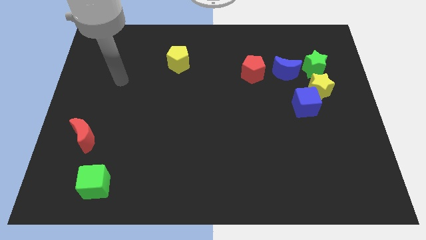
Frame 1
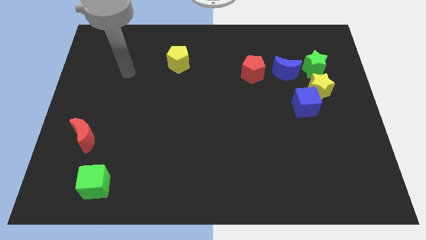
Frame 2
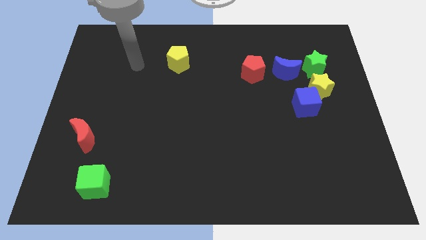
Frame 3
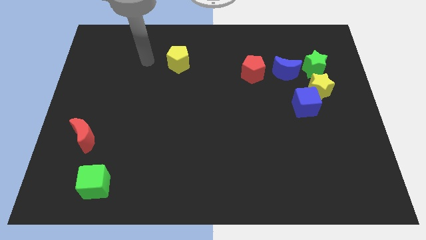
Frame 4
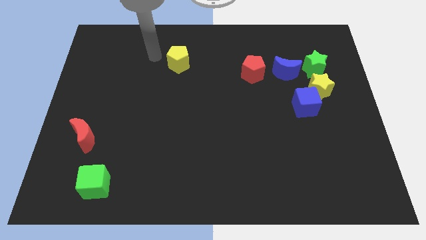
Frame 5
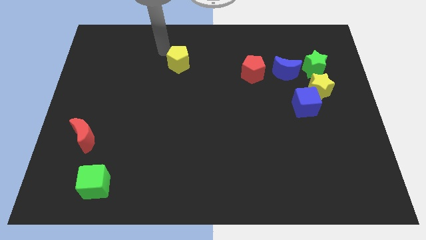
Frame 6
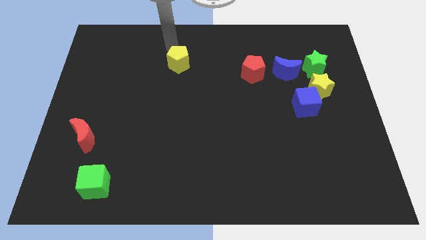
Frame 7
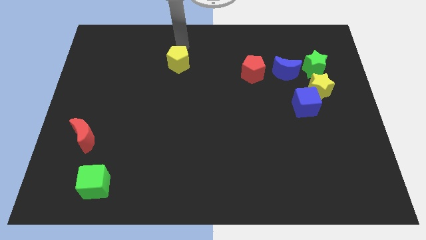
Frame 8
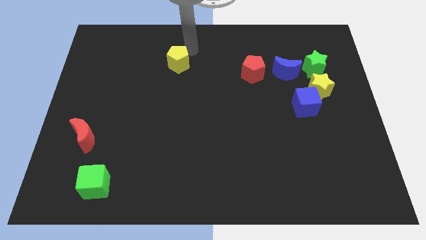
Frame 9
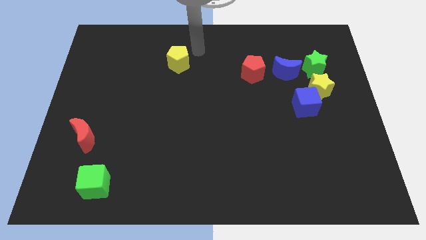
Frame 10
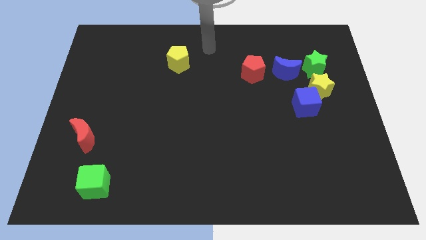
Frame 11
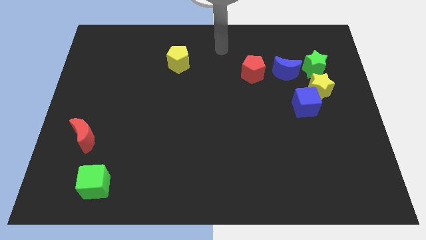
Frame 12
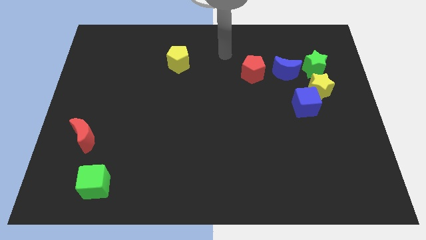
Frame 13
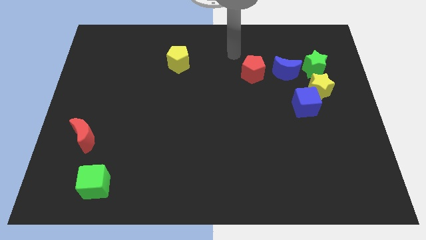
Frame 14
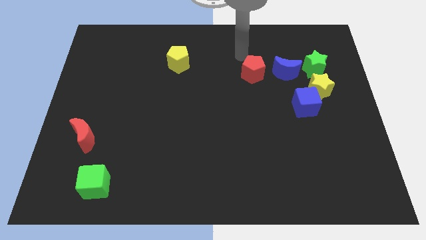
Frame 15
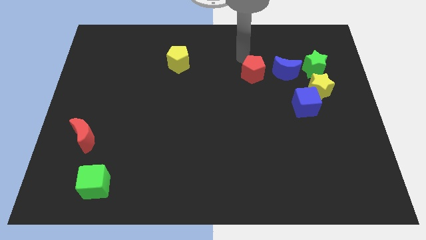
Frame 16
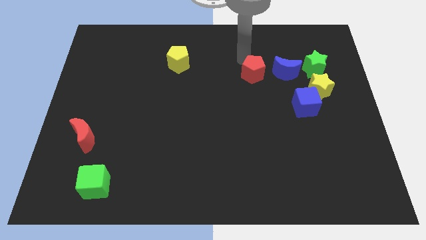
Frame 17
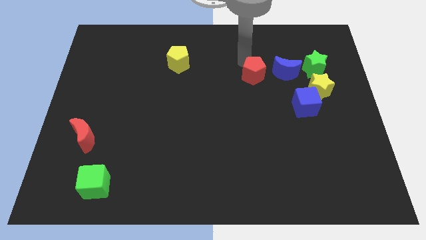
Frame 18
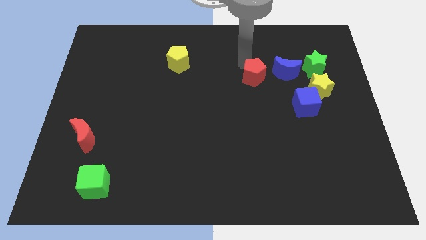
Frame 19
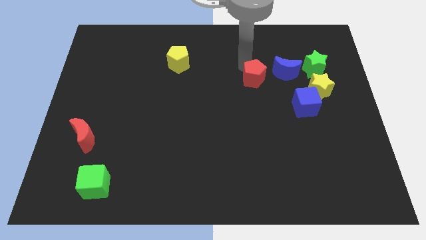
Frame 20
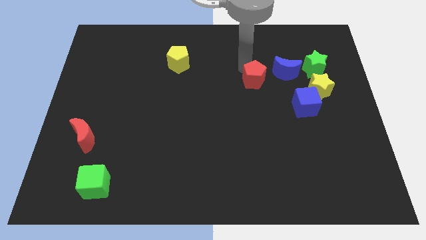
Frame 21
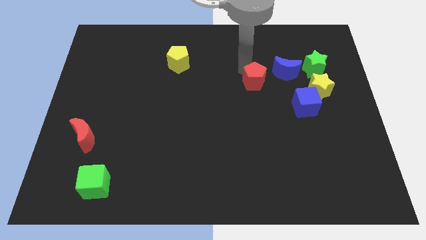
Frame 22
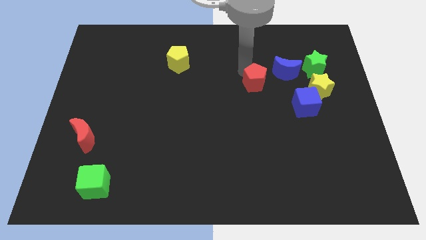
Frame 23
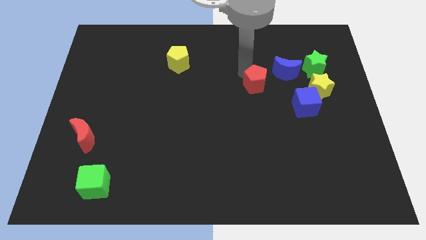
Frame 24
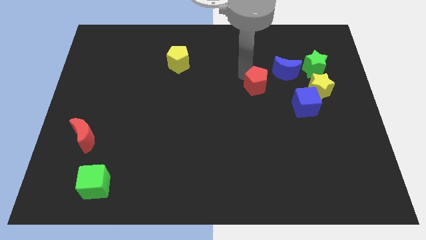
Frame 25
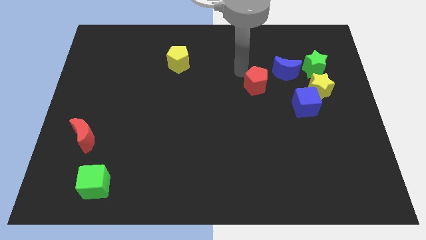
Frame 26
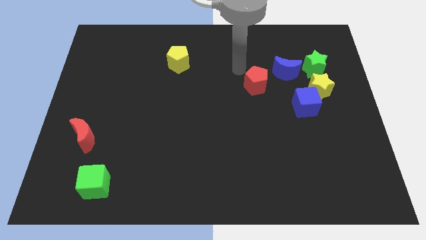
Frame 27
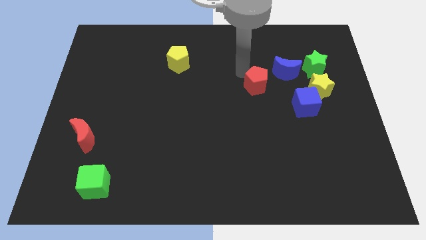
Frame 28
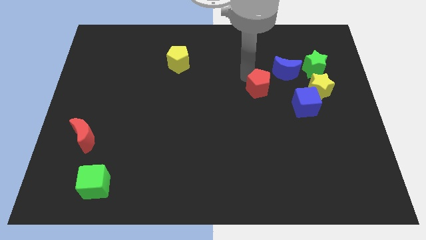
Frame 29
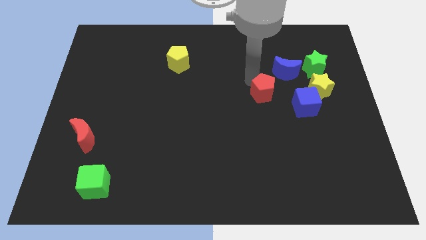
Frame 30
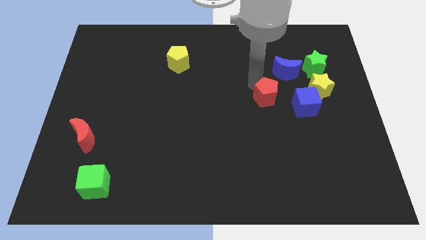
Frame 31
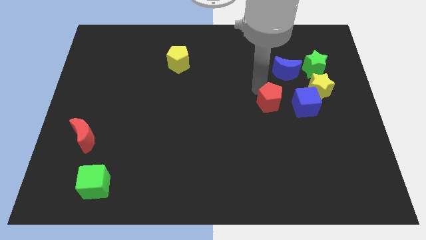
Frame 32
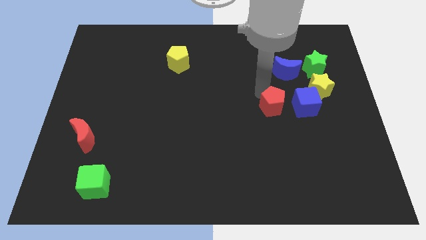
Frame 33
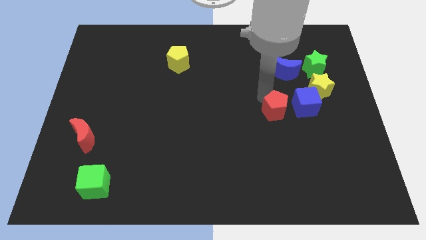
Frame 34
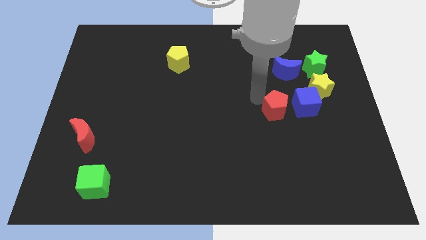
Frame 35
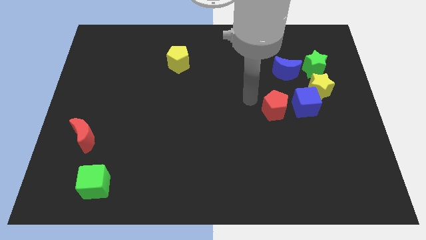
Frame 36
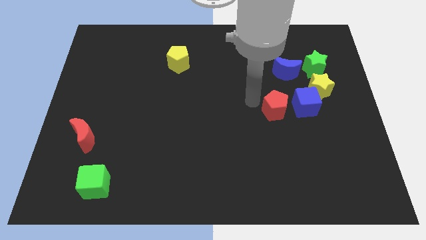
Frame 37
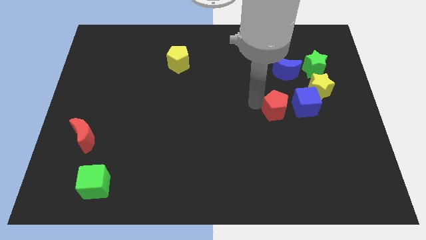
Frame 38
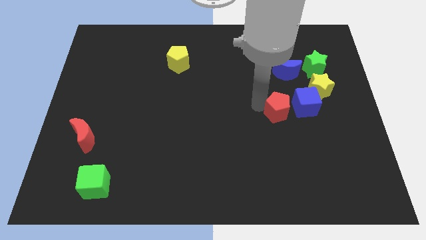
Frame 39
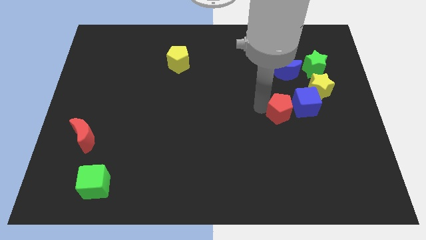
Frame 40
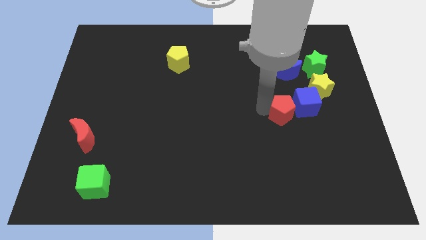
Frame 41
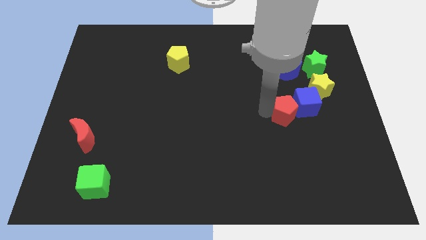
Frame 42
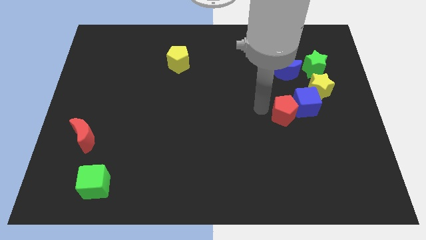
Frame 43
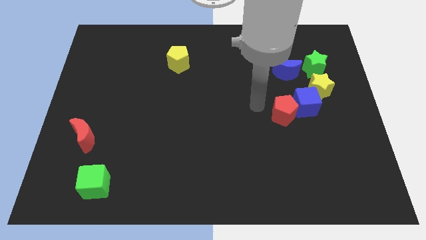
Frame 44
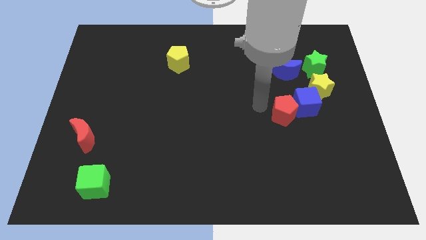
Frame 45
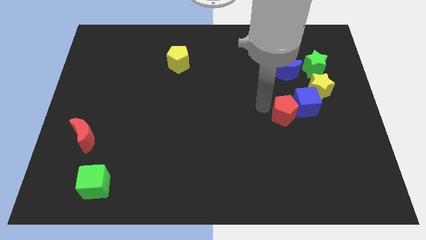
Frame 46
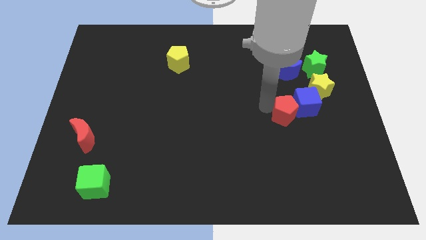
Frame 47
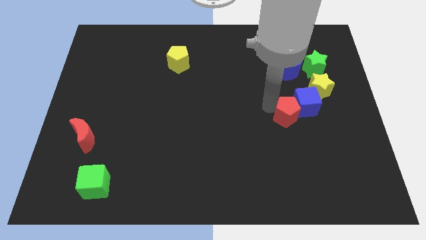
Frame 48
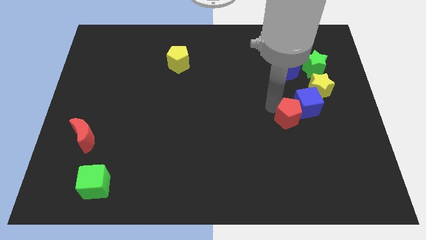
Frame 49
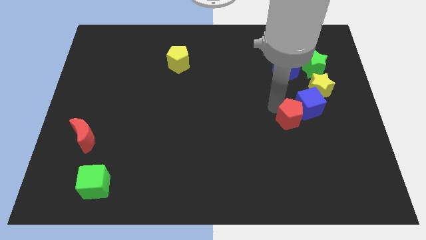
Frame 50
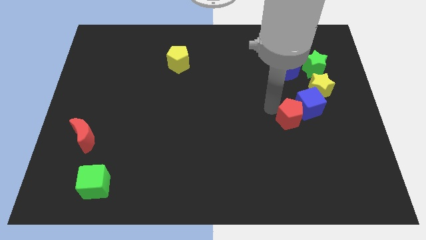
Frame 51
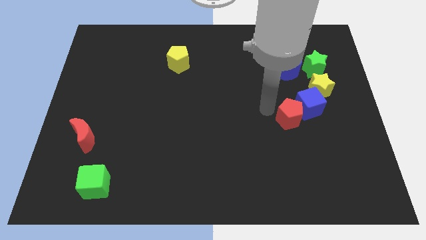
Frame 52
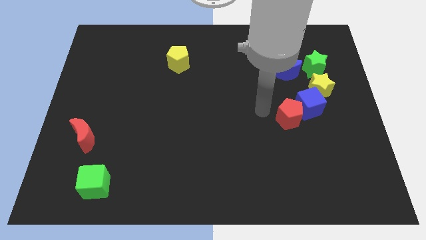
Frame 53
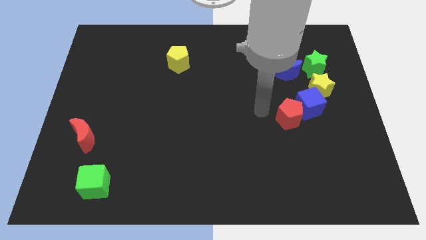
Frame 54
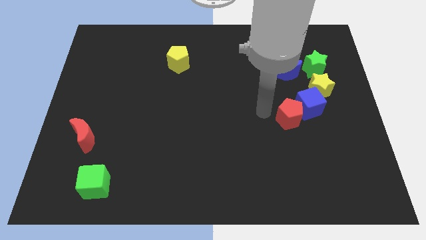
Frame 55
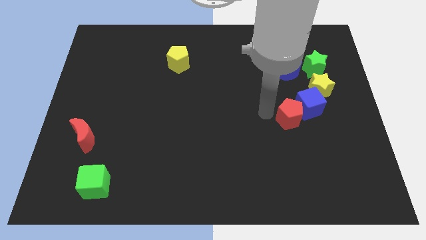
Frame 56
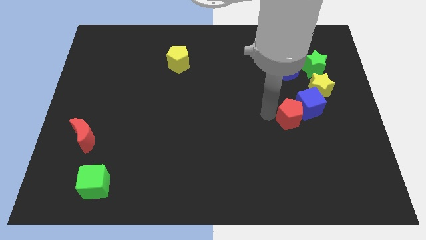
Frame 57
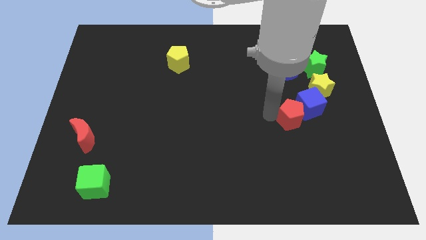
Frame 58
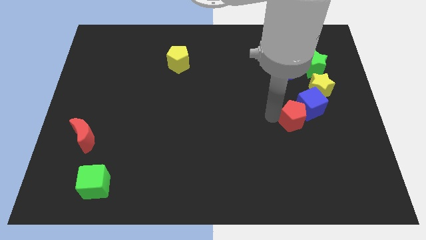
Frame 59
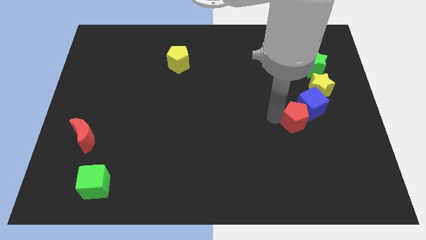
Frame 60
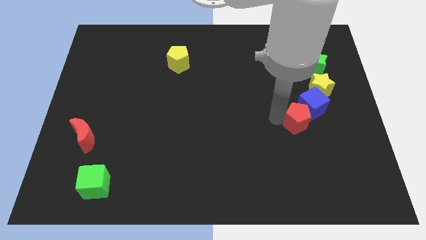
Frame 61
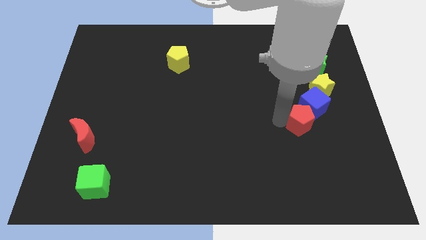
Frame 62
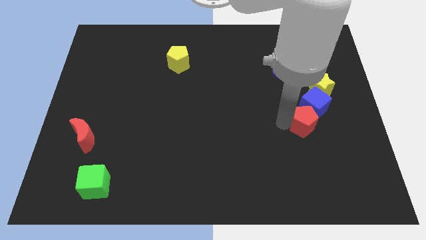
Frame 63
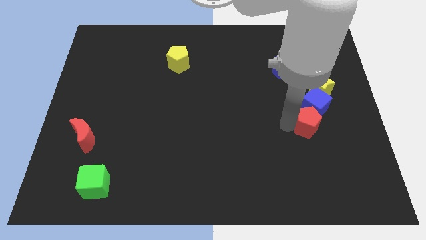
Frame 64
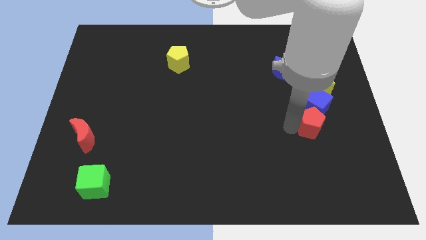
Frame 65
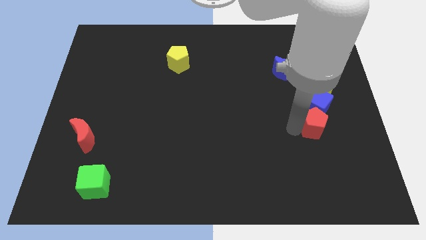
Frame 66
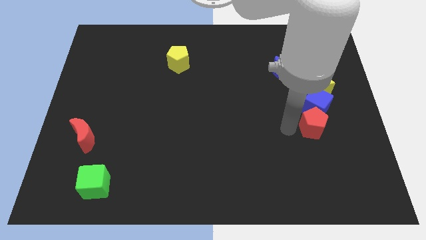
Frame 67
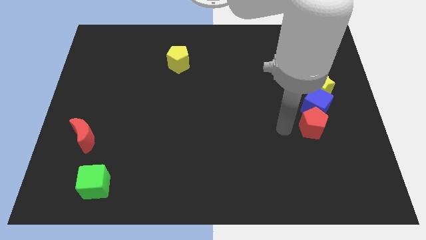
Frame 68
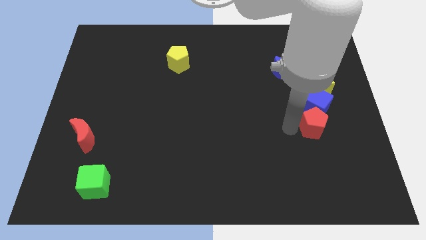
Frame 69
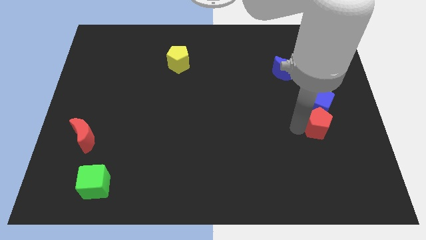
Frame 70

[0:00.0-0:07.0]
push the red pentagon to the bottom right side of the blue cube

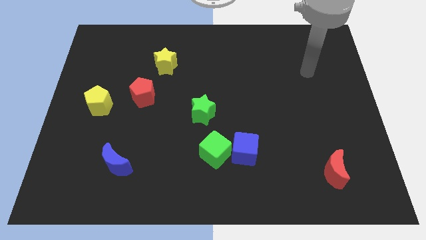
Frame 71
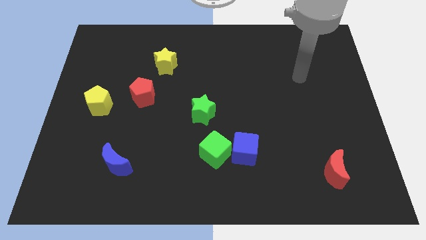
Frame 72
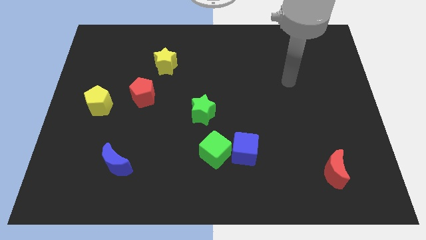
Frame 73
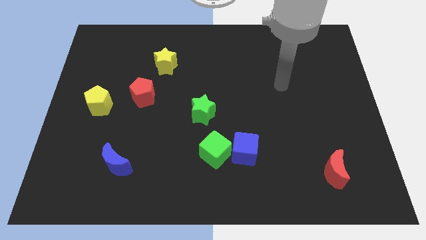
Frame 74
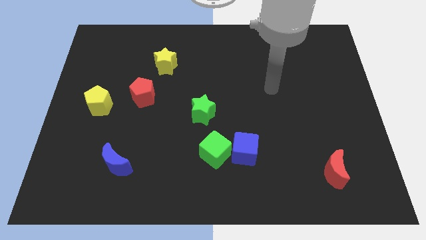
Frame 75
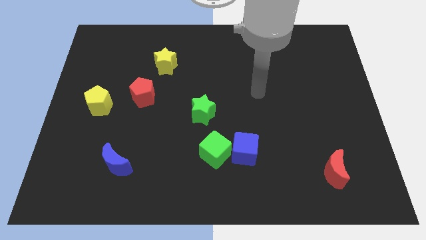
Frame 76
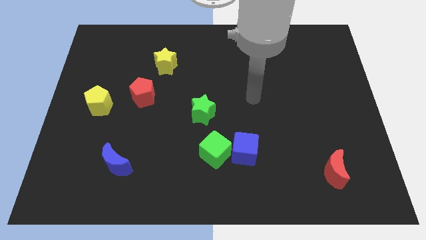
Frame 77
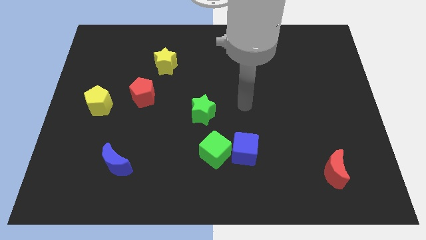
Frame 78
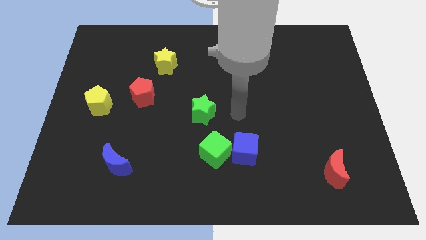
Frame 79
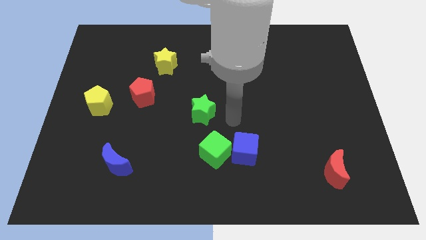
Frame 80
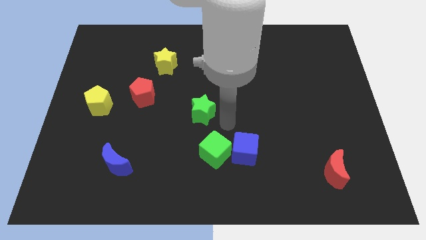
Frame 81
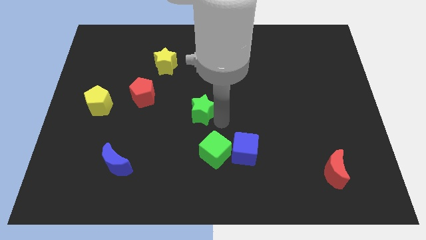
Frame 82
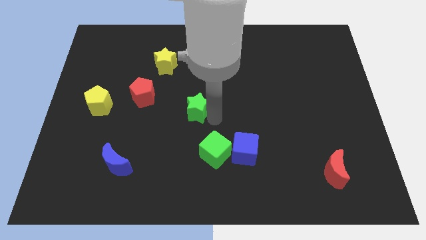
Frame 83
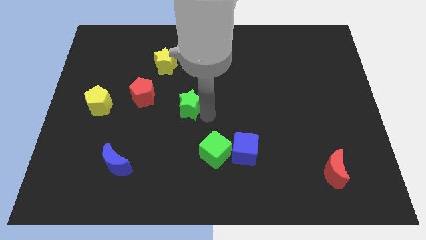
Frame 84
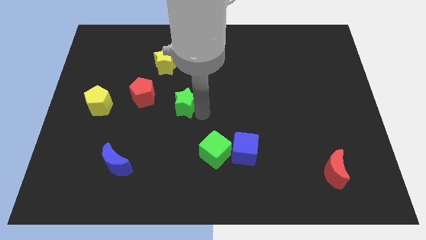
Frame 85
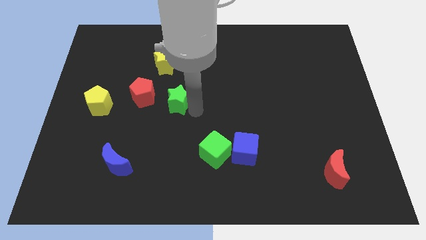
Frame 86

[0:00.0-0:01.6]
put the green star to the bottom of the yellow star
